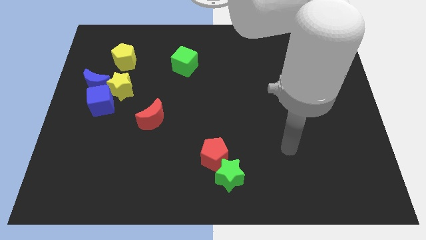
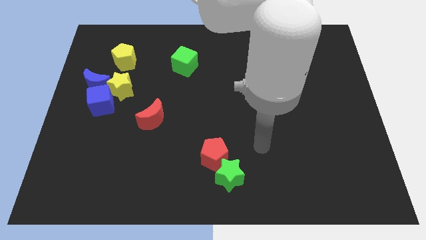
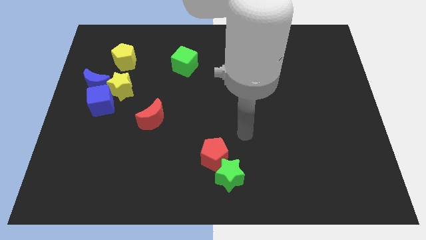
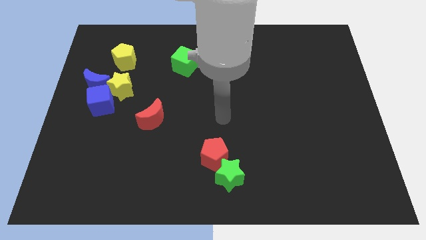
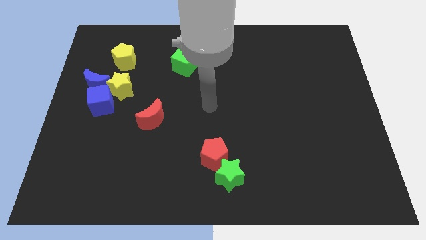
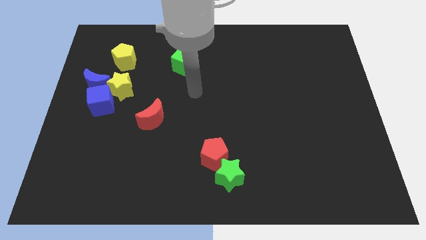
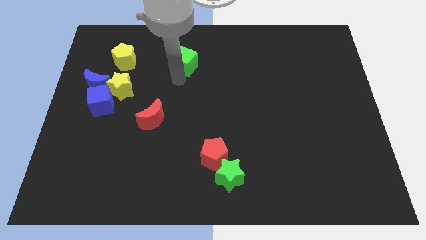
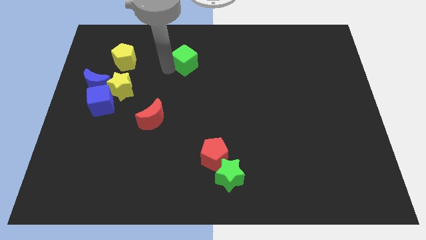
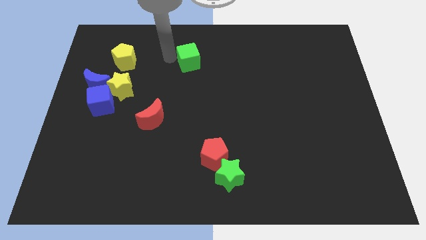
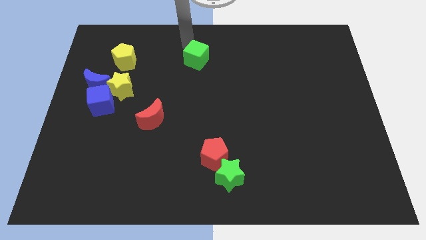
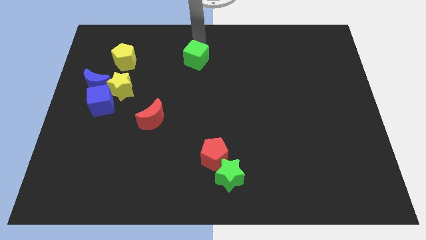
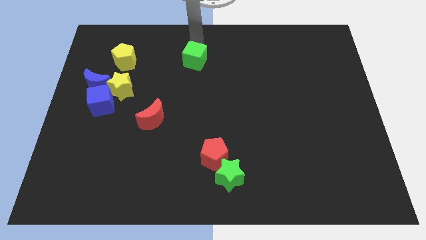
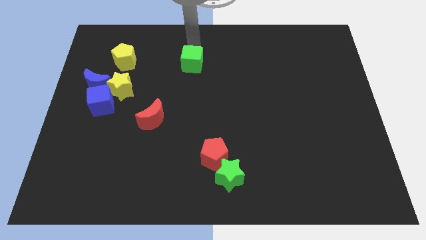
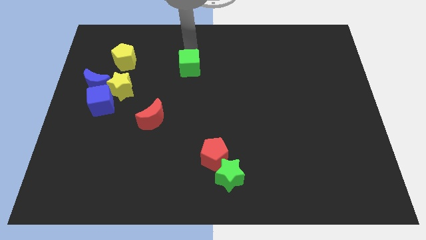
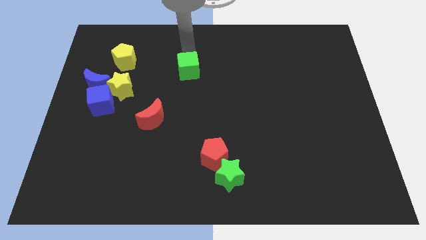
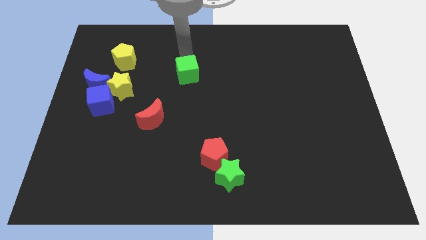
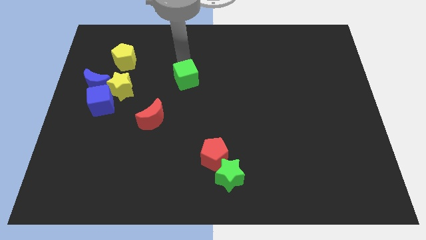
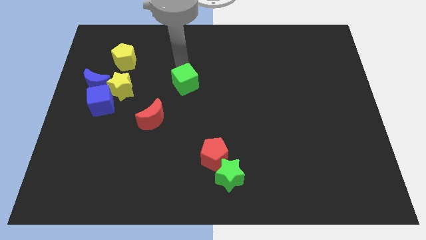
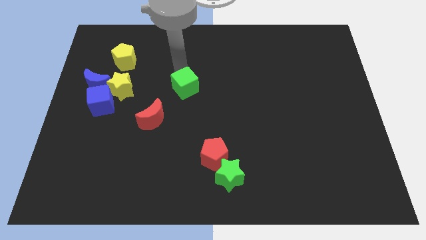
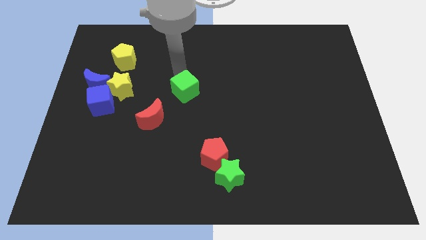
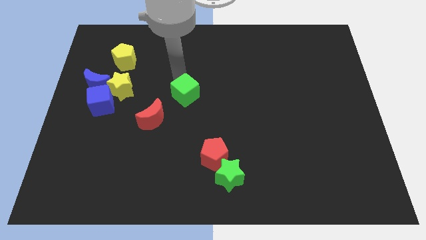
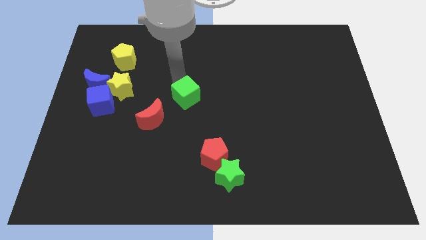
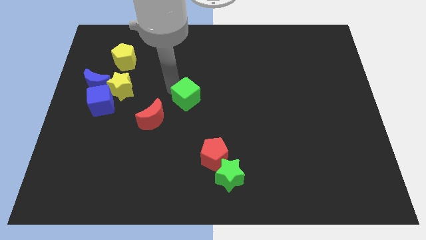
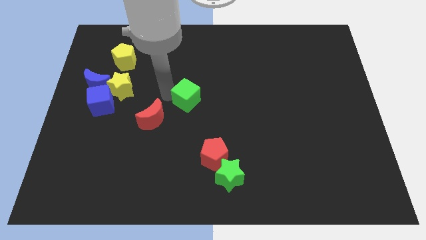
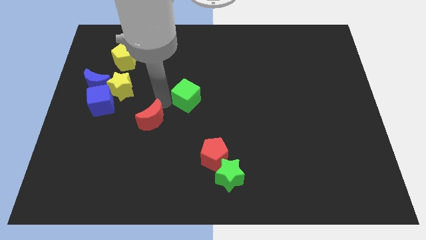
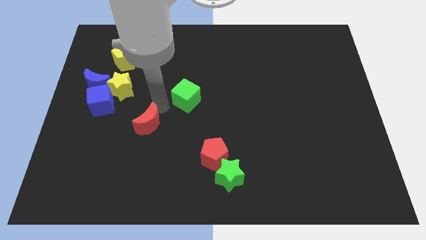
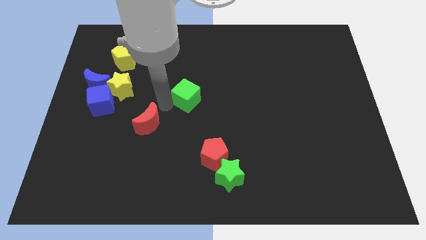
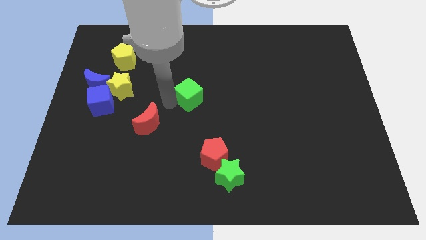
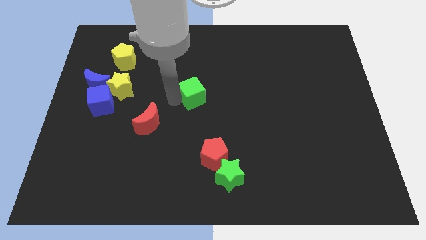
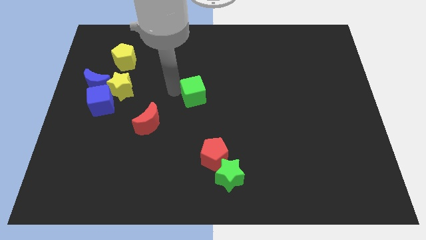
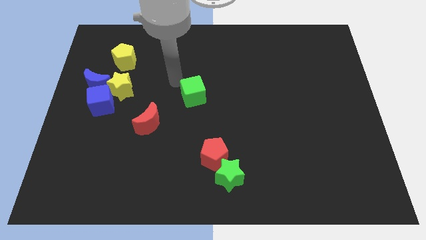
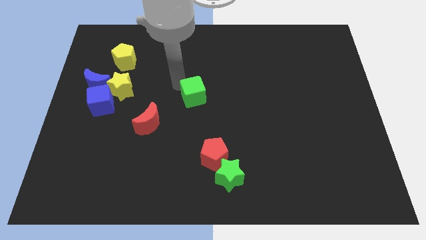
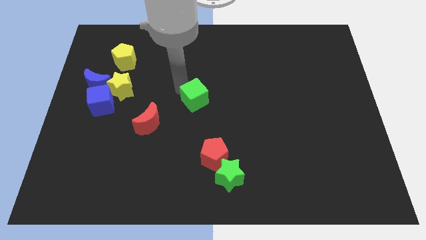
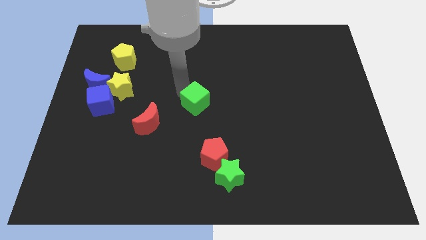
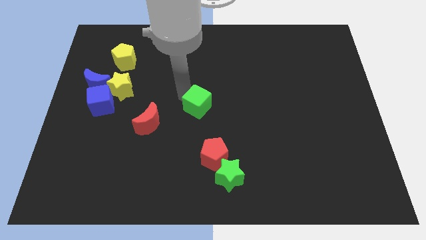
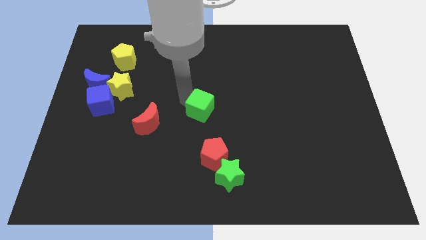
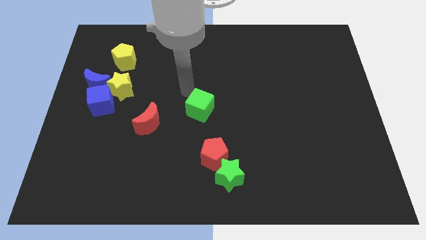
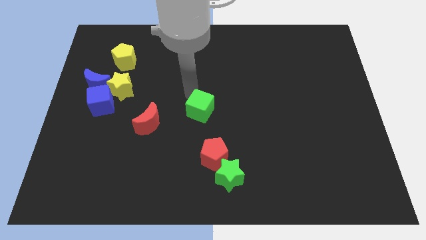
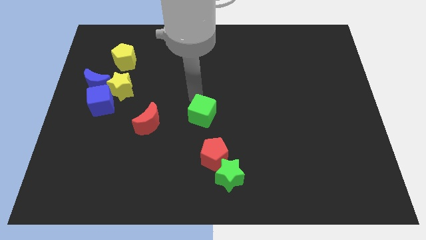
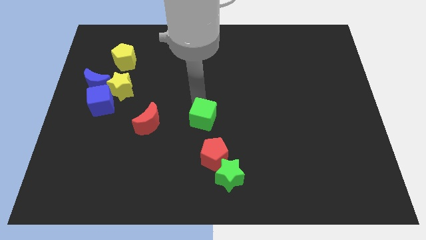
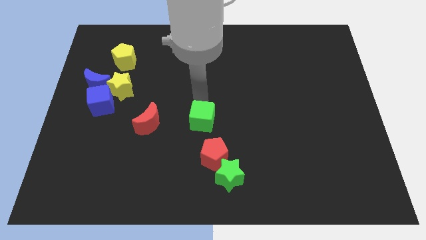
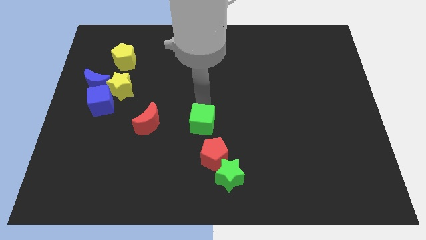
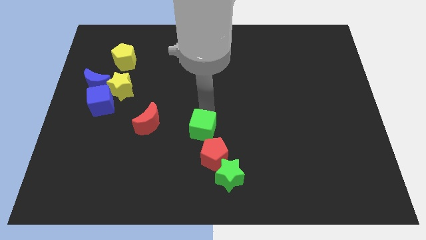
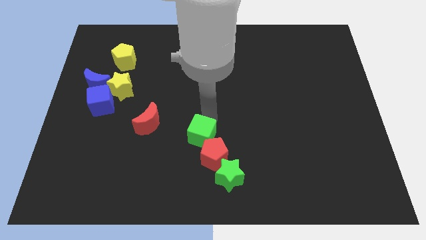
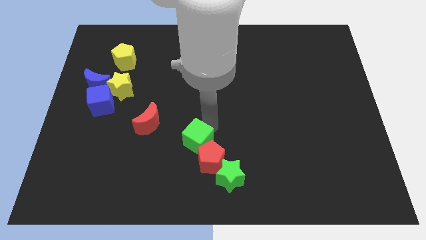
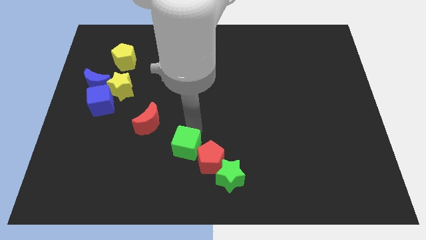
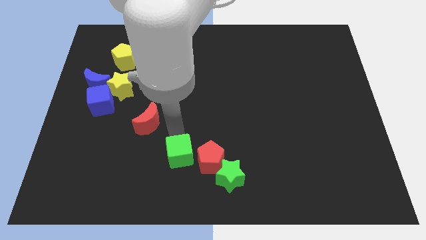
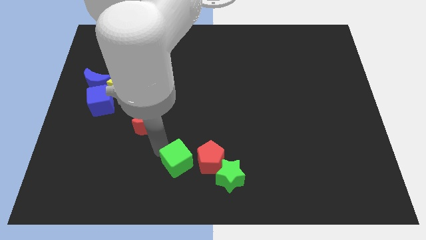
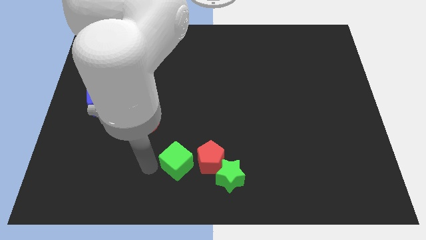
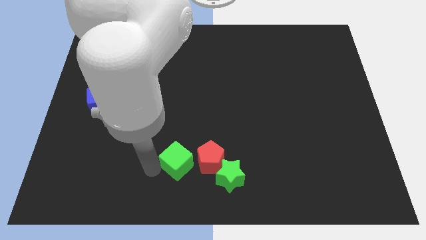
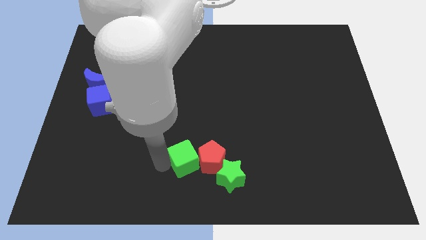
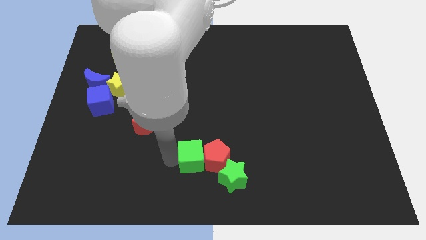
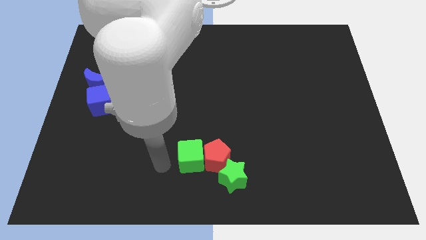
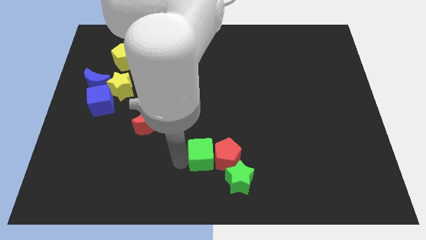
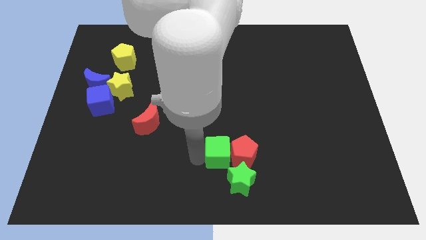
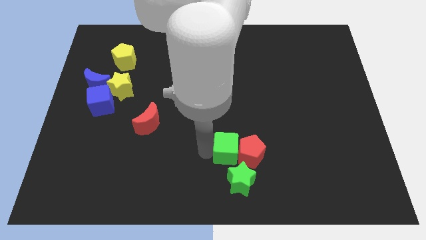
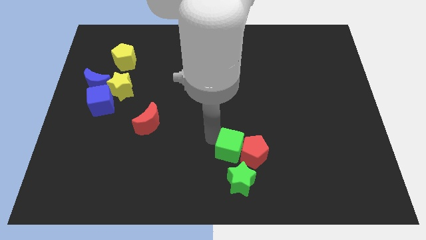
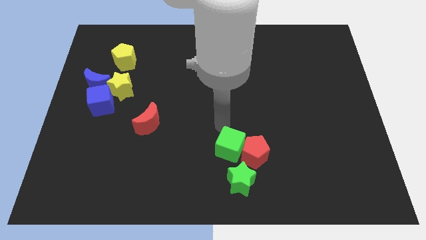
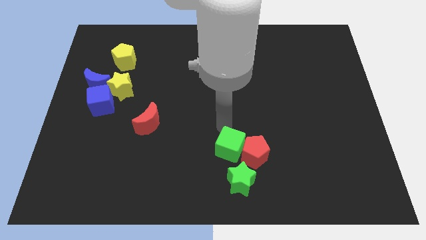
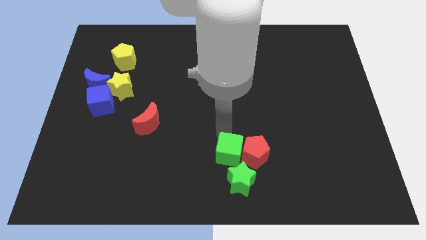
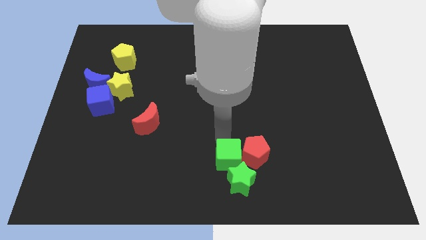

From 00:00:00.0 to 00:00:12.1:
slide the green cube close to the green star

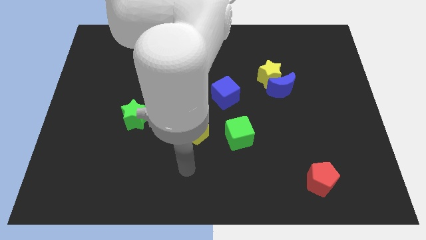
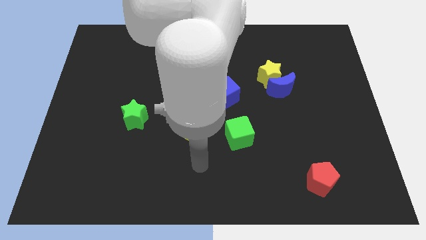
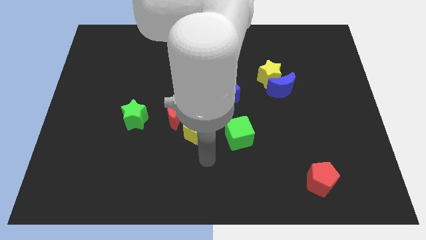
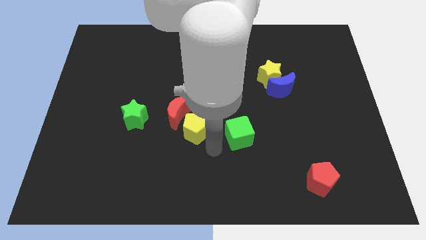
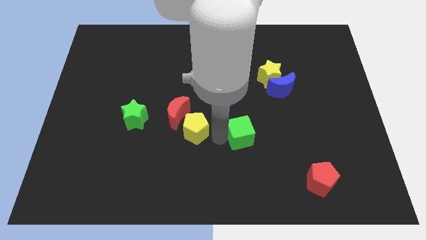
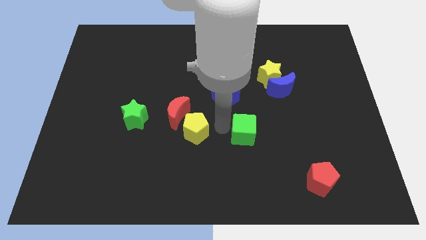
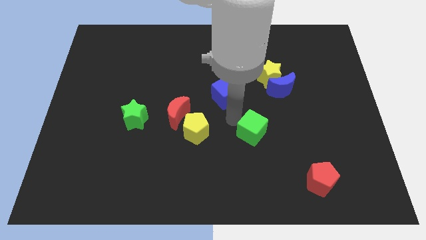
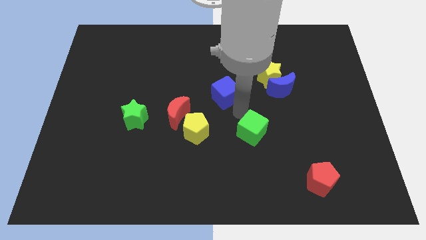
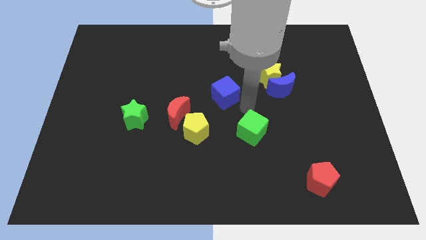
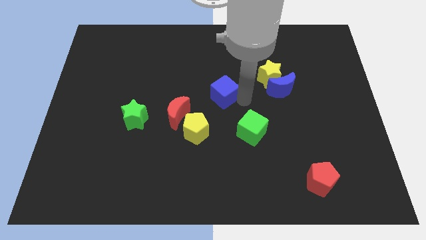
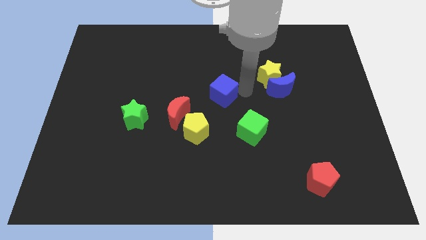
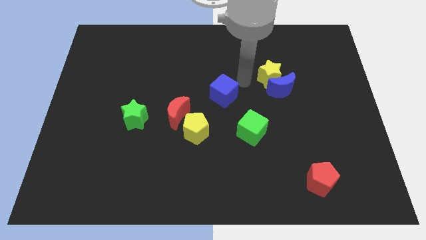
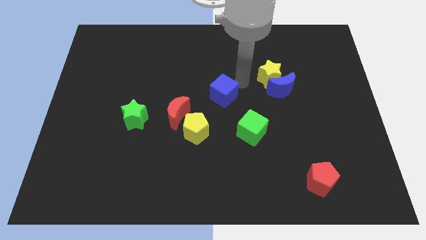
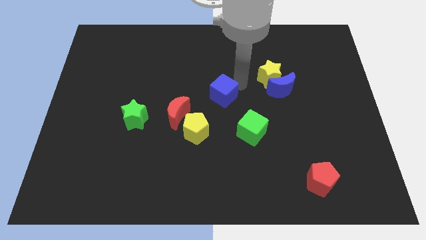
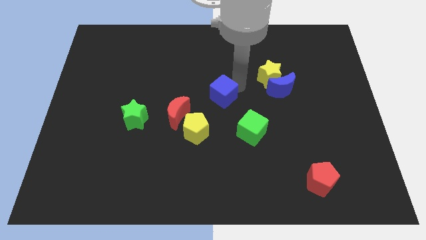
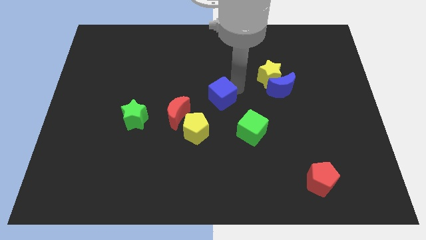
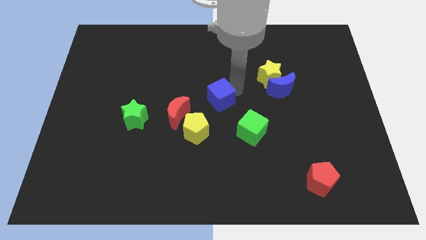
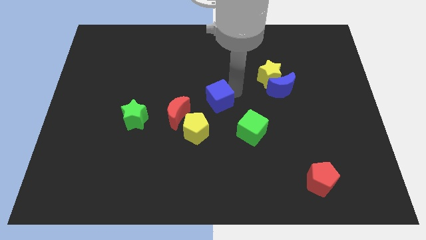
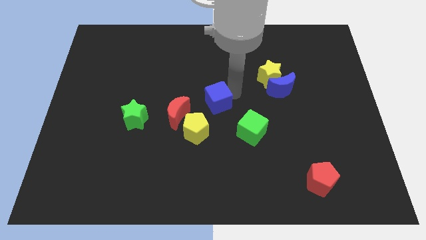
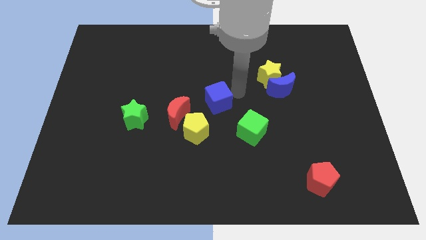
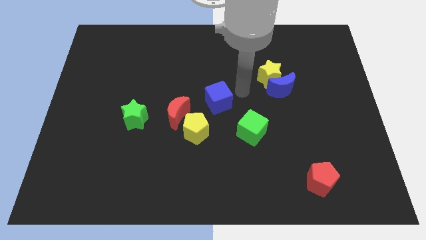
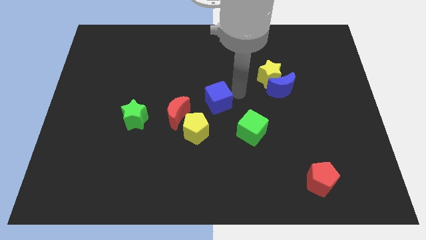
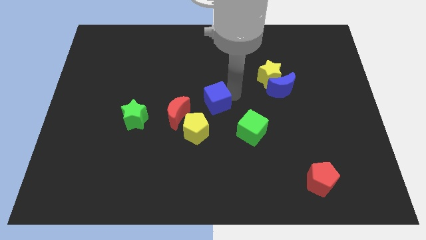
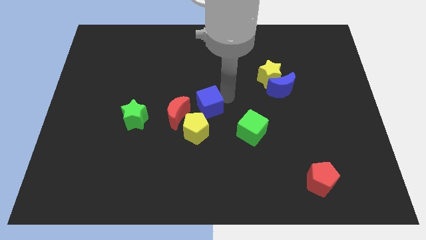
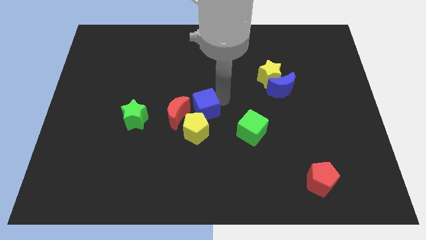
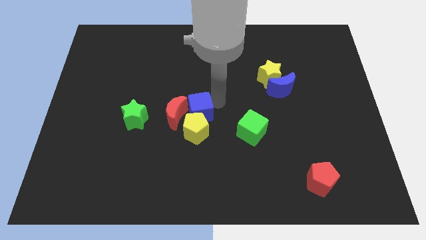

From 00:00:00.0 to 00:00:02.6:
put the blue cube to the red moon
